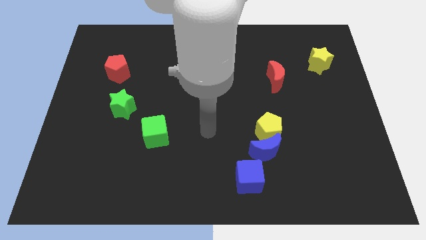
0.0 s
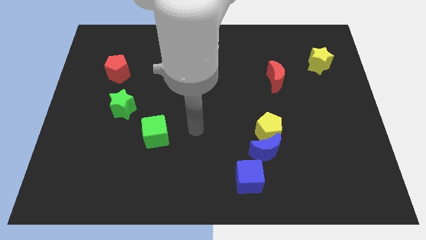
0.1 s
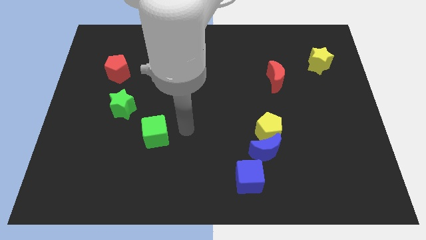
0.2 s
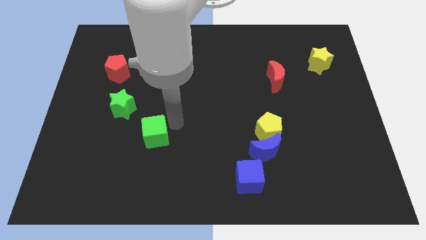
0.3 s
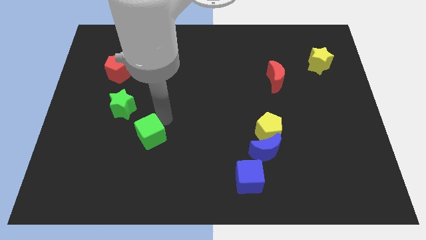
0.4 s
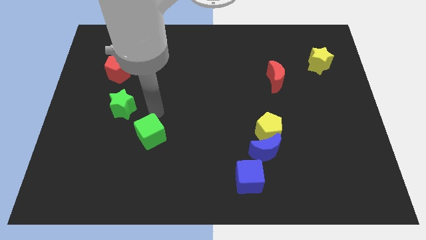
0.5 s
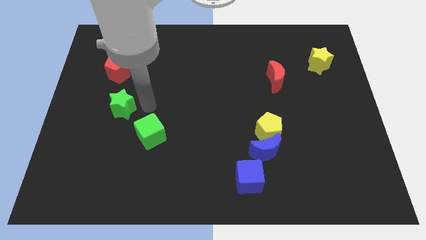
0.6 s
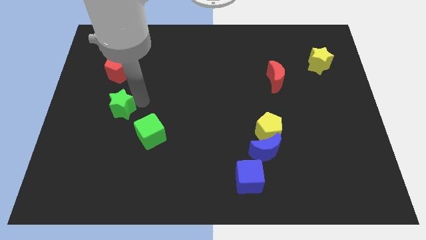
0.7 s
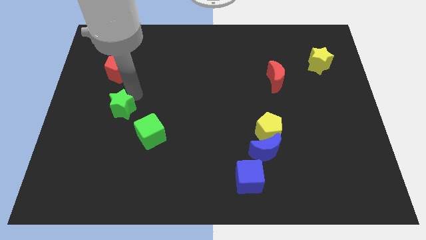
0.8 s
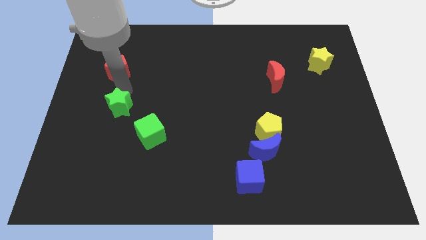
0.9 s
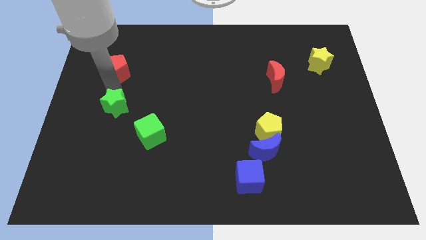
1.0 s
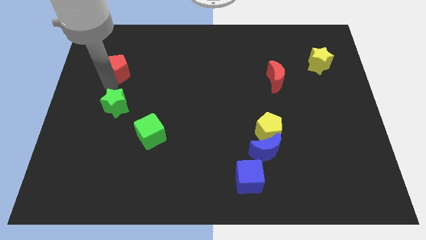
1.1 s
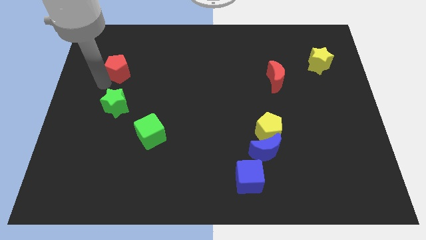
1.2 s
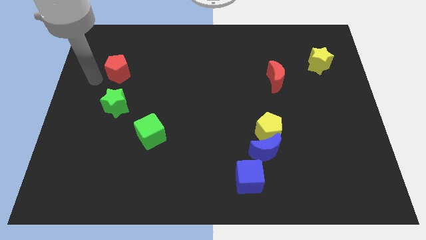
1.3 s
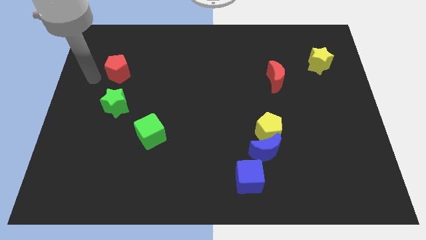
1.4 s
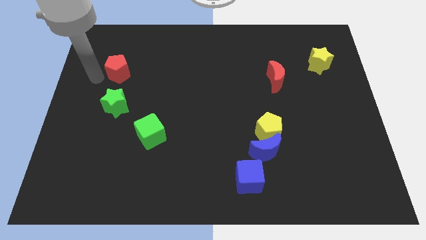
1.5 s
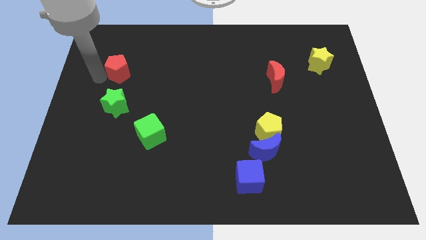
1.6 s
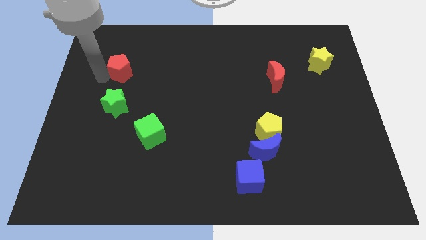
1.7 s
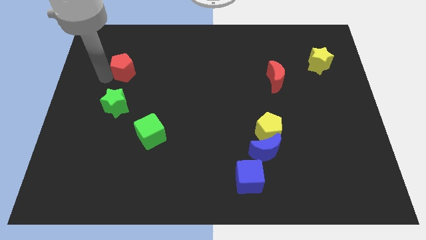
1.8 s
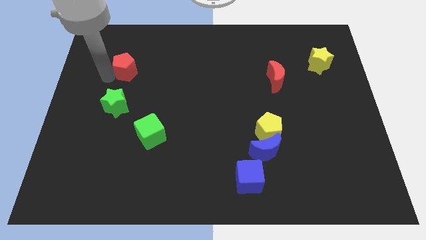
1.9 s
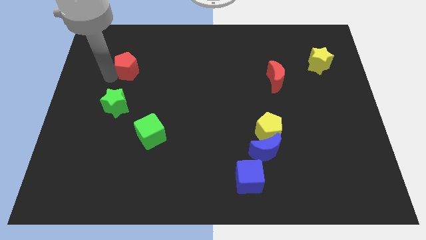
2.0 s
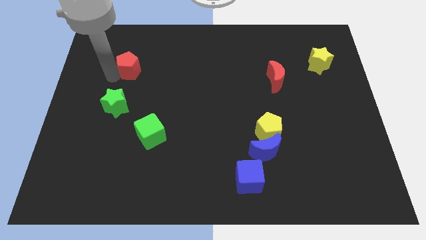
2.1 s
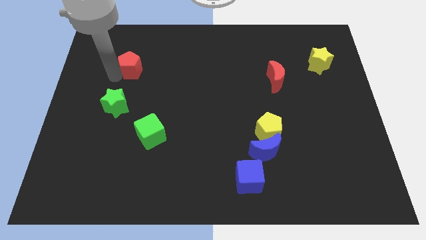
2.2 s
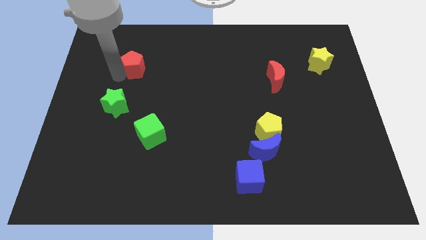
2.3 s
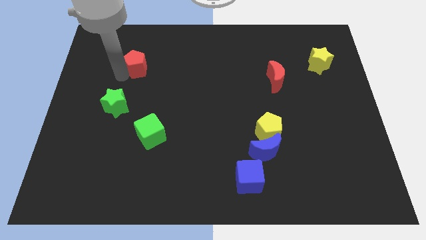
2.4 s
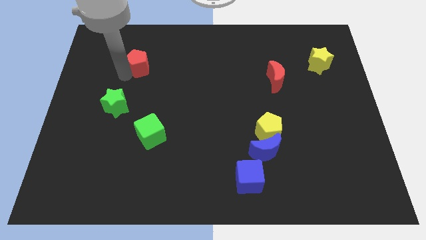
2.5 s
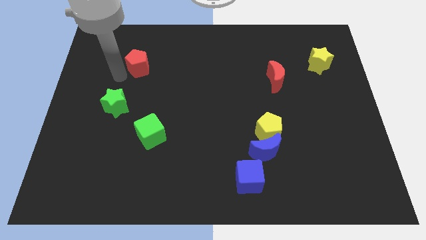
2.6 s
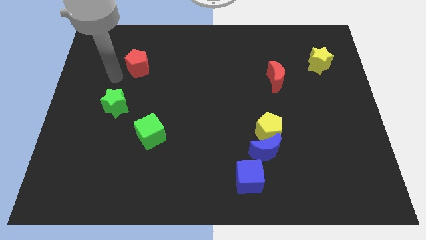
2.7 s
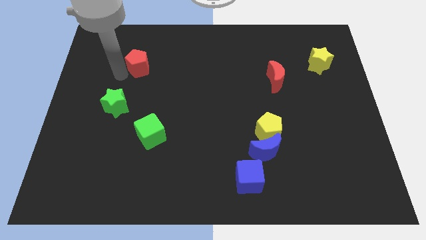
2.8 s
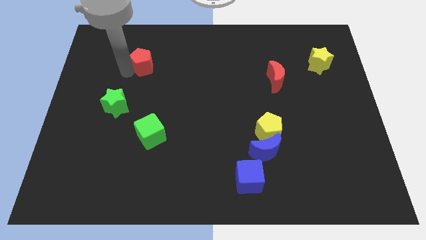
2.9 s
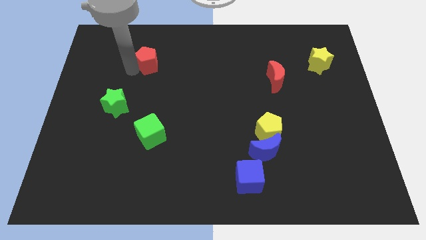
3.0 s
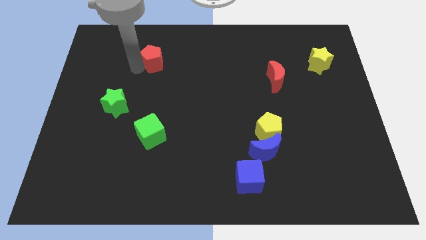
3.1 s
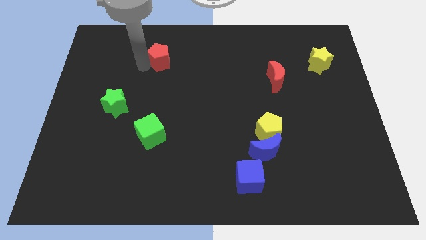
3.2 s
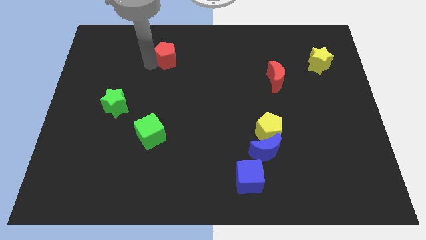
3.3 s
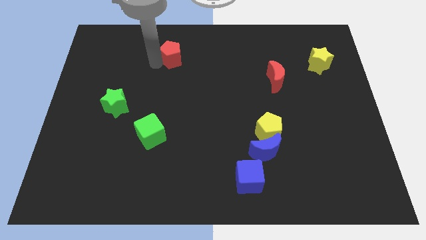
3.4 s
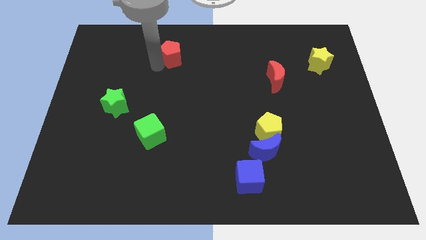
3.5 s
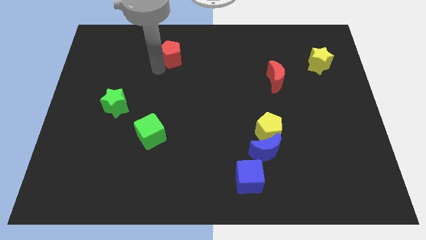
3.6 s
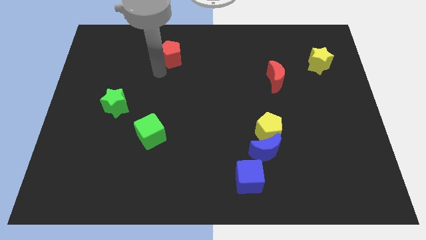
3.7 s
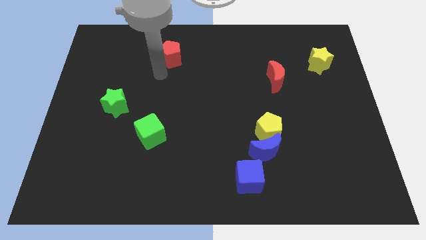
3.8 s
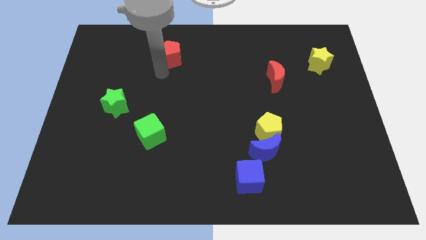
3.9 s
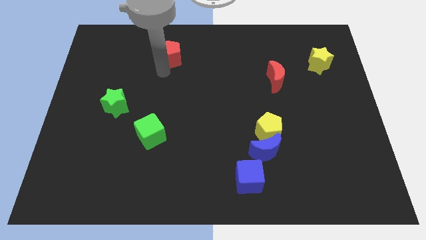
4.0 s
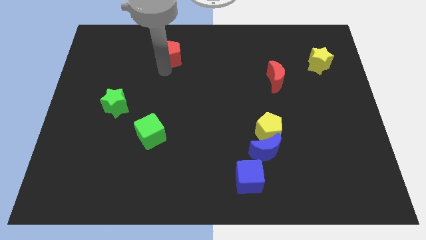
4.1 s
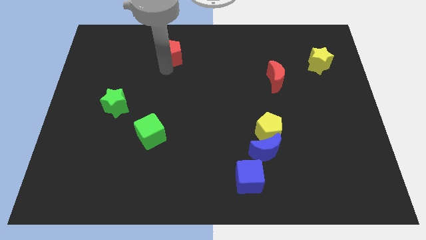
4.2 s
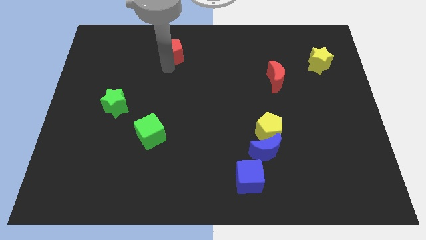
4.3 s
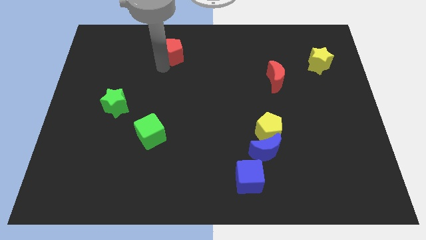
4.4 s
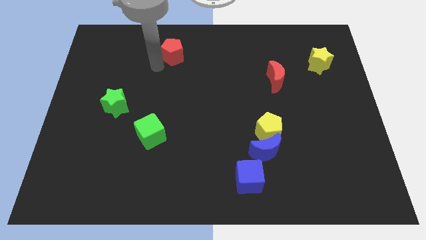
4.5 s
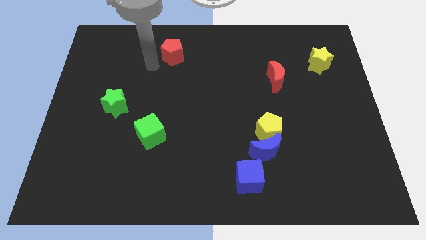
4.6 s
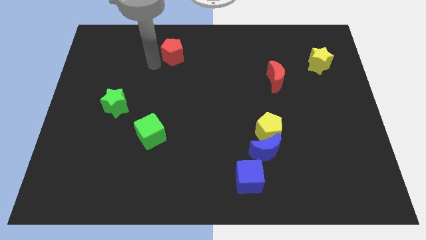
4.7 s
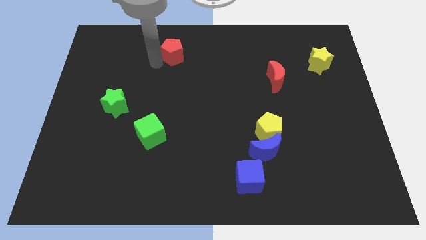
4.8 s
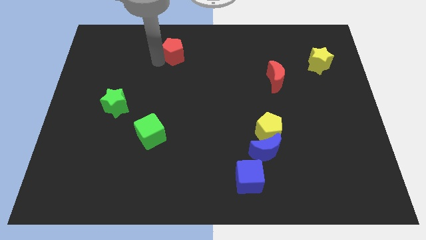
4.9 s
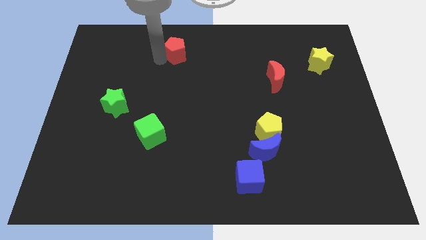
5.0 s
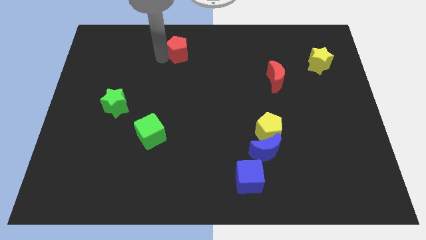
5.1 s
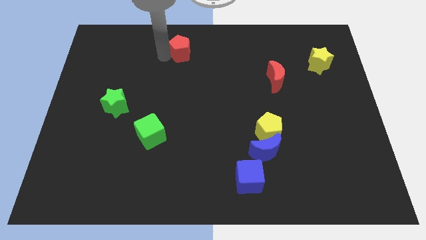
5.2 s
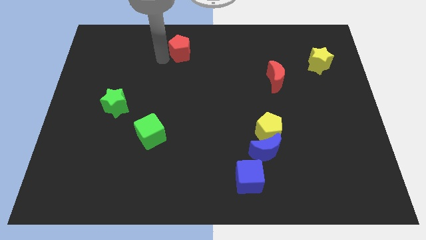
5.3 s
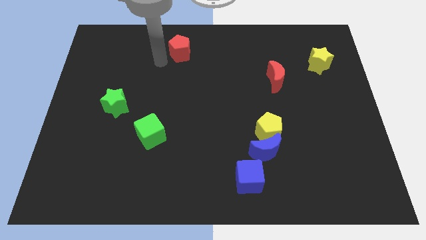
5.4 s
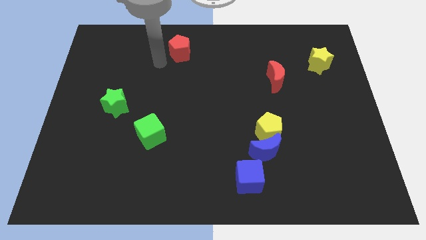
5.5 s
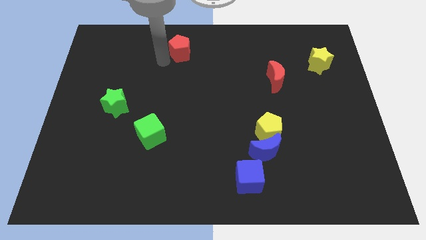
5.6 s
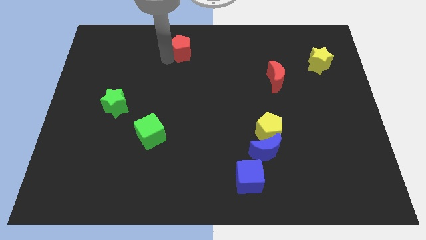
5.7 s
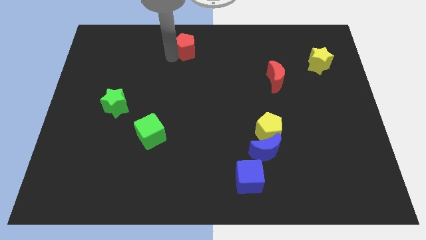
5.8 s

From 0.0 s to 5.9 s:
slide the red pentagon to the towards your base

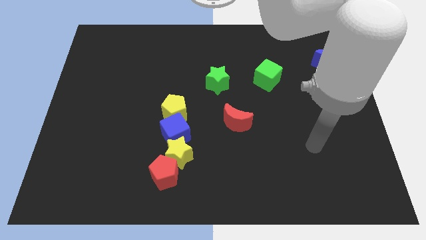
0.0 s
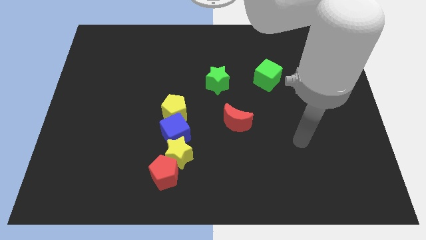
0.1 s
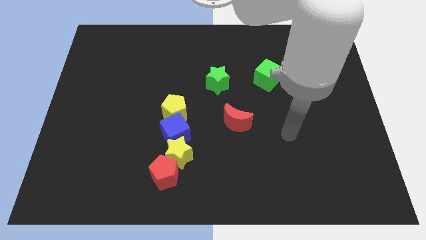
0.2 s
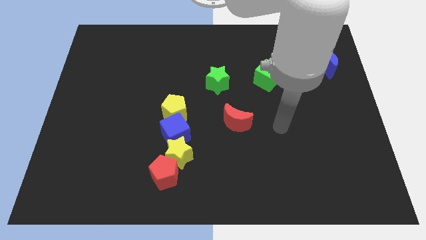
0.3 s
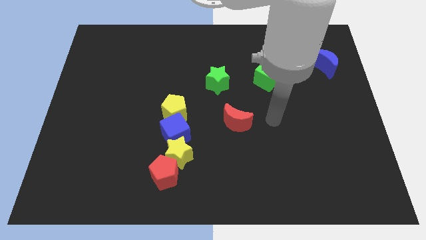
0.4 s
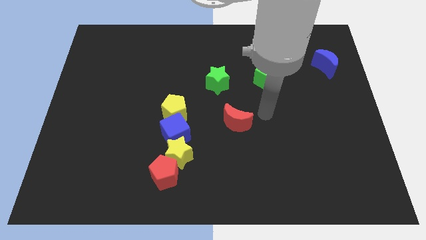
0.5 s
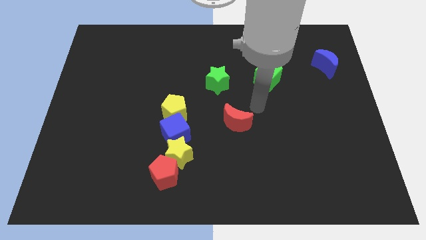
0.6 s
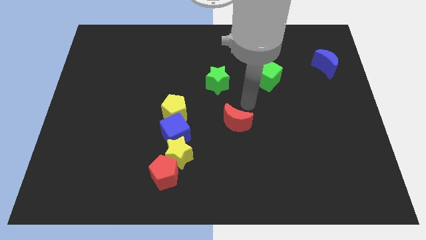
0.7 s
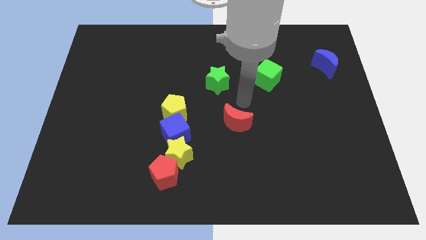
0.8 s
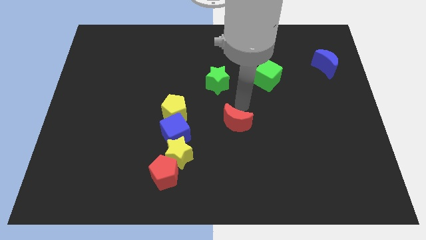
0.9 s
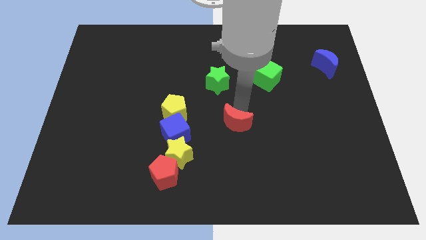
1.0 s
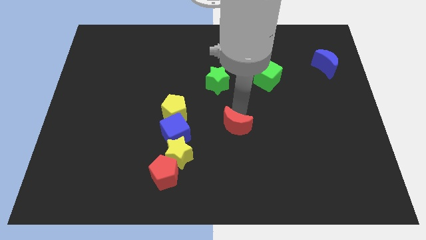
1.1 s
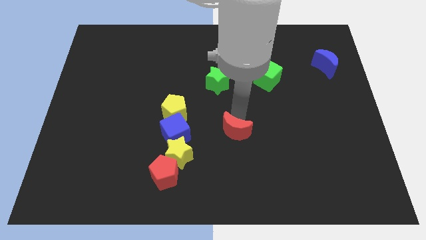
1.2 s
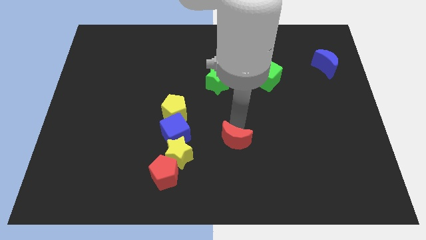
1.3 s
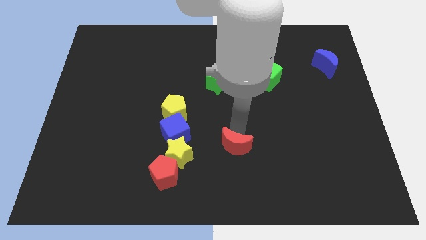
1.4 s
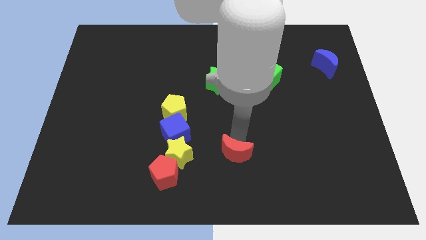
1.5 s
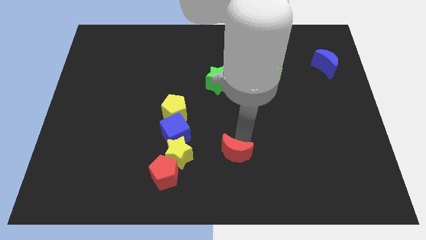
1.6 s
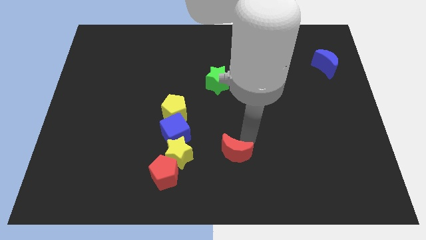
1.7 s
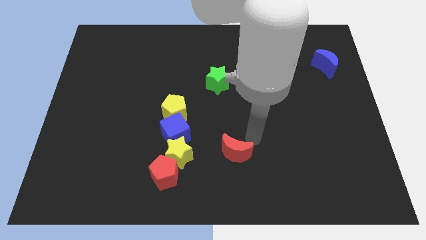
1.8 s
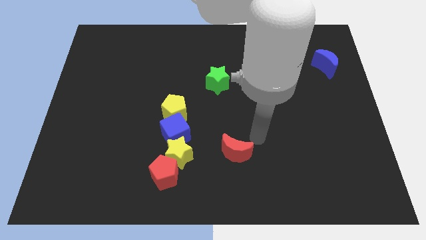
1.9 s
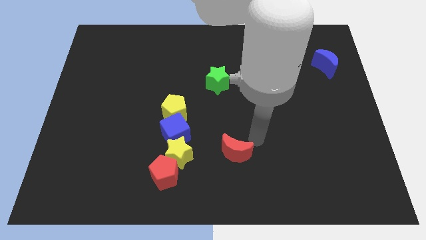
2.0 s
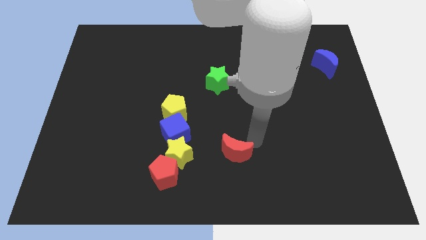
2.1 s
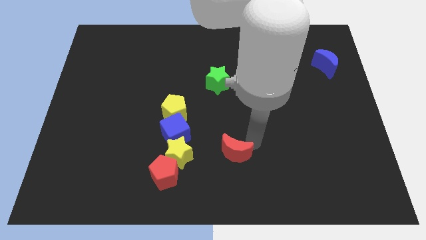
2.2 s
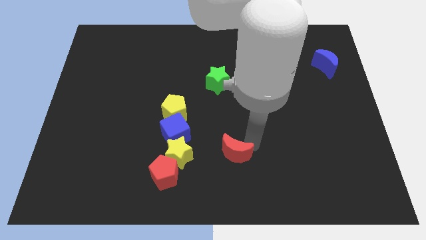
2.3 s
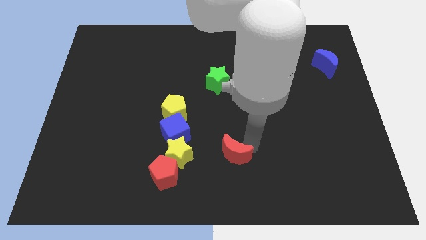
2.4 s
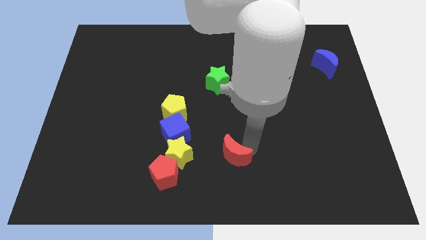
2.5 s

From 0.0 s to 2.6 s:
slide the red moon to the bottom
